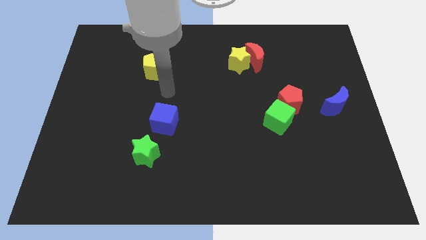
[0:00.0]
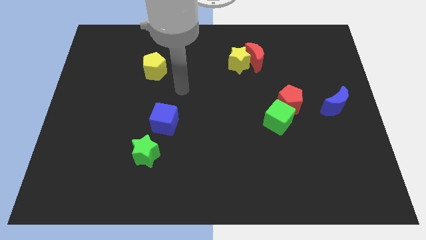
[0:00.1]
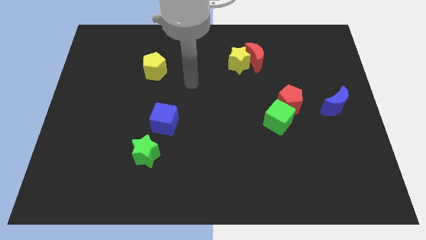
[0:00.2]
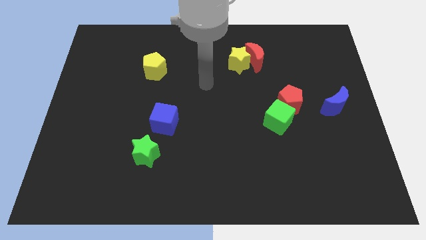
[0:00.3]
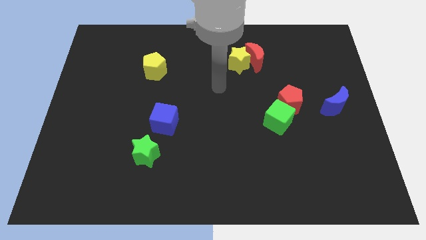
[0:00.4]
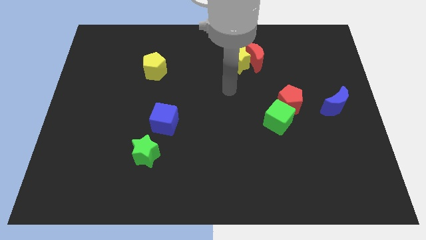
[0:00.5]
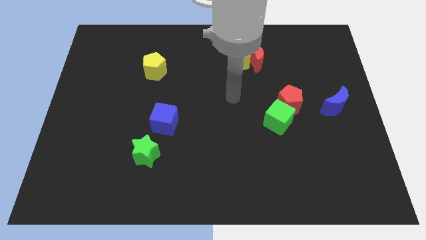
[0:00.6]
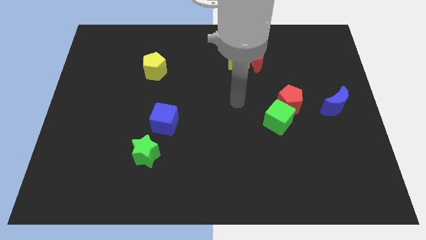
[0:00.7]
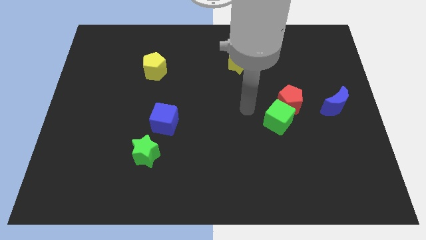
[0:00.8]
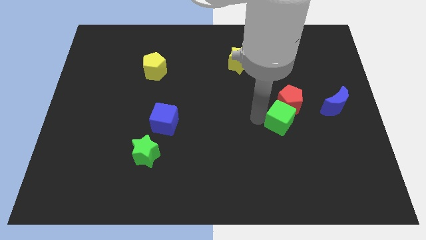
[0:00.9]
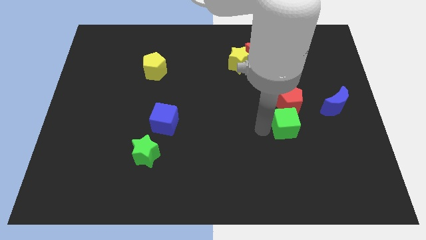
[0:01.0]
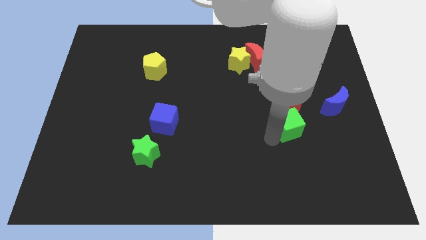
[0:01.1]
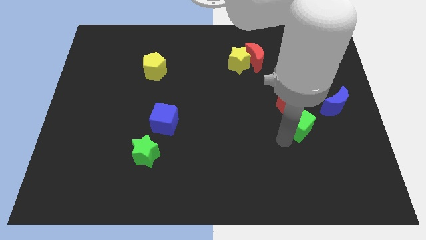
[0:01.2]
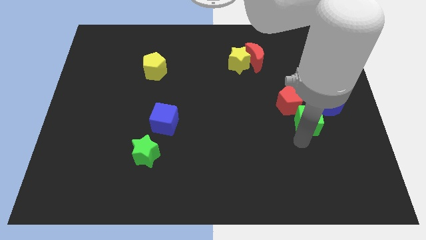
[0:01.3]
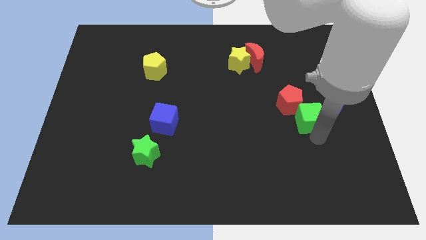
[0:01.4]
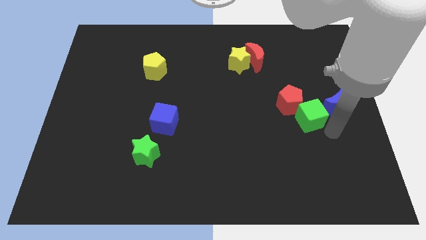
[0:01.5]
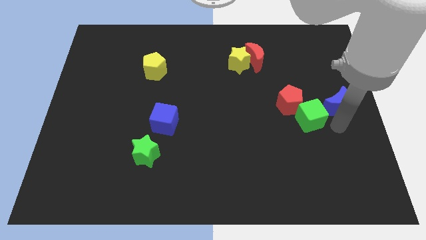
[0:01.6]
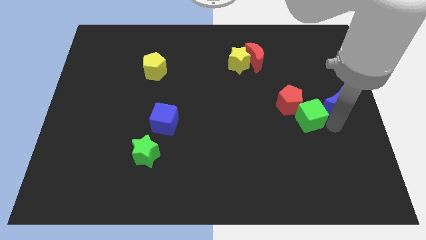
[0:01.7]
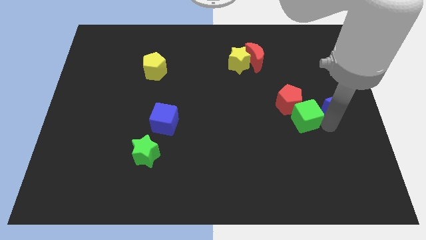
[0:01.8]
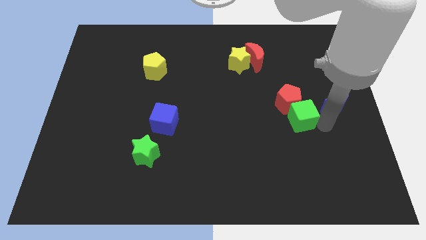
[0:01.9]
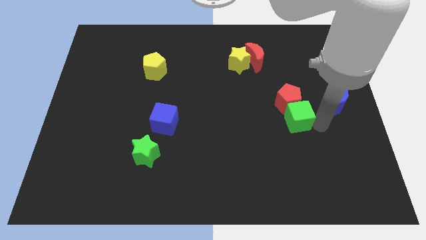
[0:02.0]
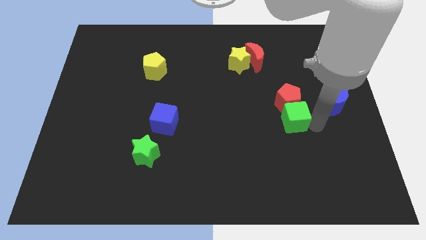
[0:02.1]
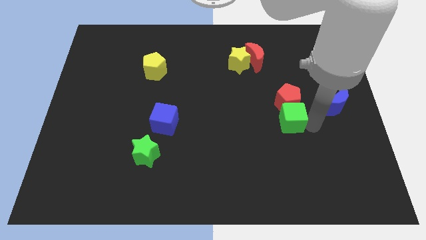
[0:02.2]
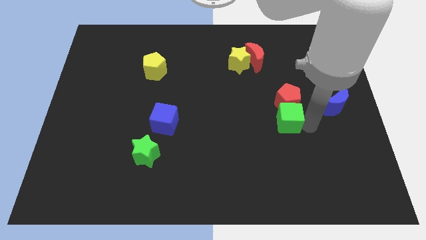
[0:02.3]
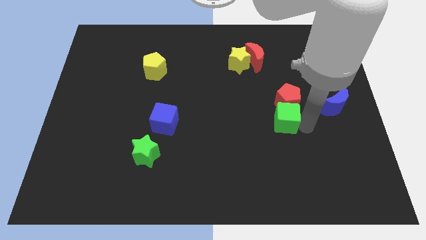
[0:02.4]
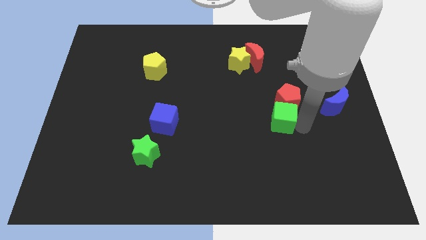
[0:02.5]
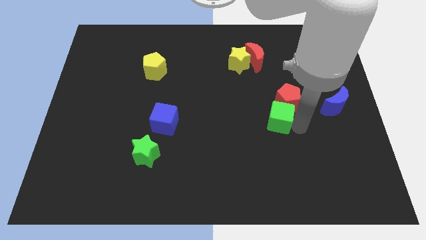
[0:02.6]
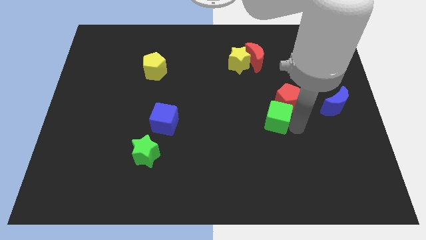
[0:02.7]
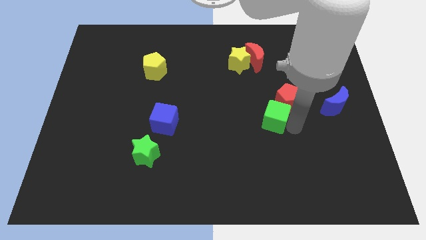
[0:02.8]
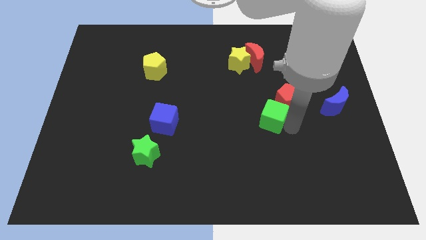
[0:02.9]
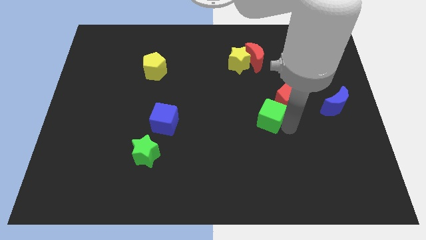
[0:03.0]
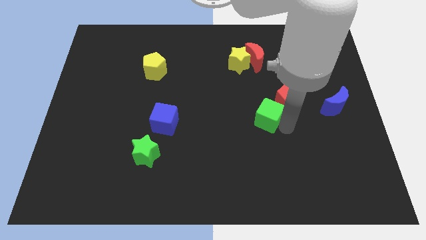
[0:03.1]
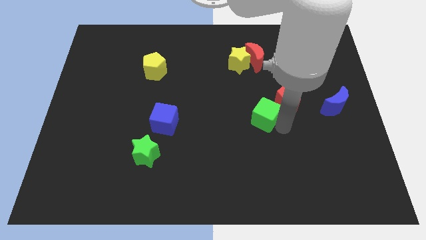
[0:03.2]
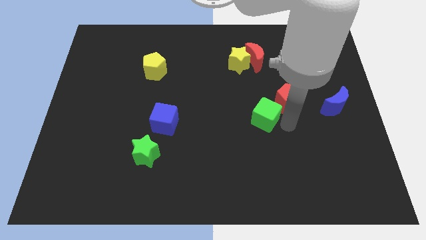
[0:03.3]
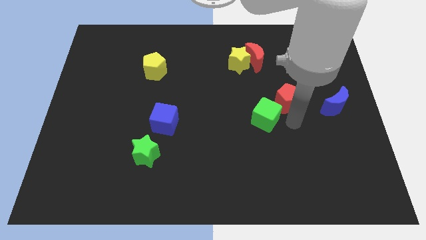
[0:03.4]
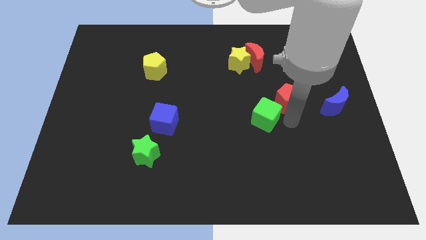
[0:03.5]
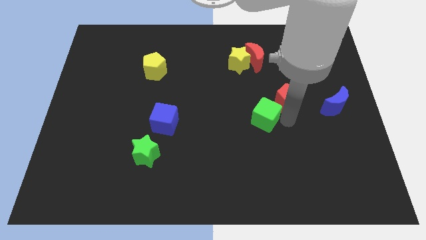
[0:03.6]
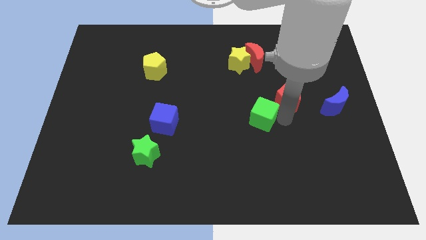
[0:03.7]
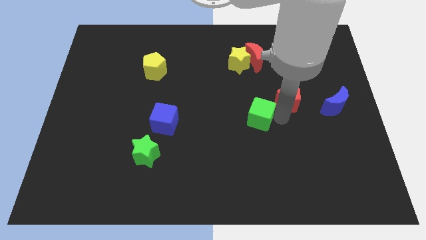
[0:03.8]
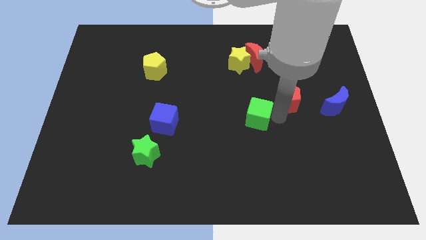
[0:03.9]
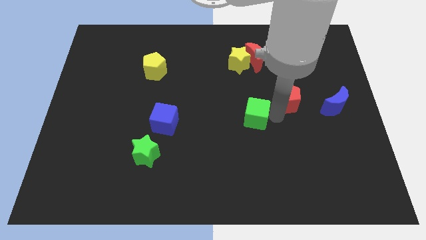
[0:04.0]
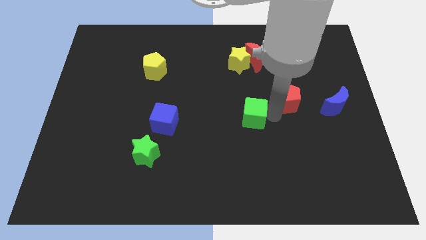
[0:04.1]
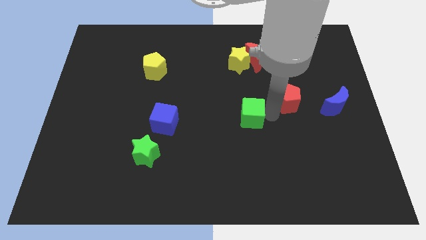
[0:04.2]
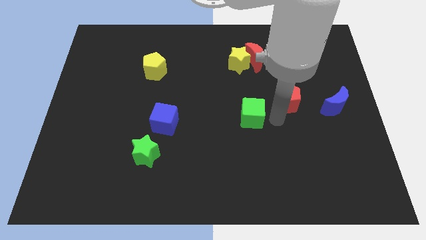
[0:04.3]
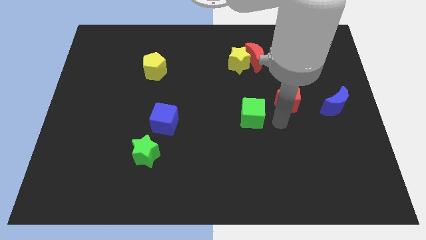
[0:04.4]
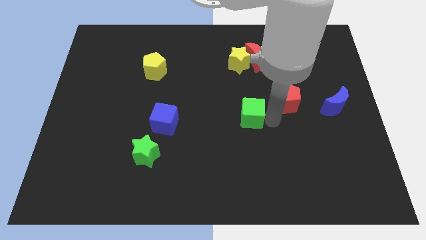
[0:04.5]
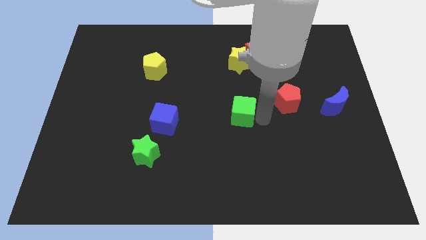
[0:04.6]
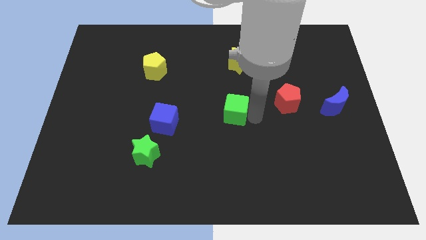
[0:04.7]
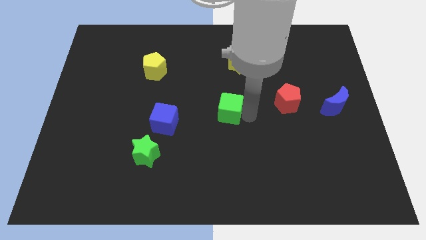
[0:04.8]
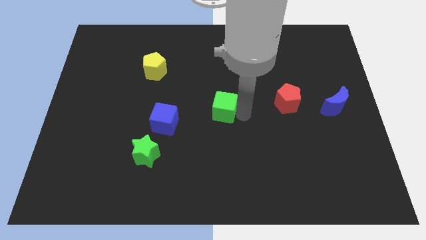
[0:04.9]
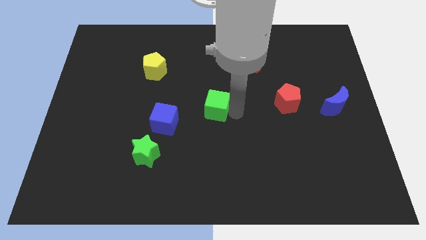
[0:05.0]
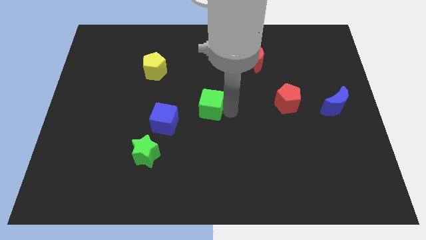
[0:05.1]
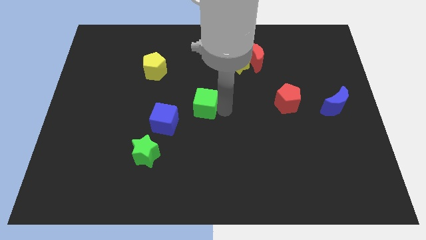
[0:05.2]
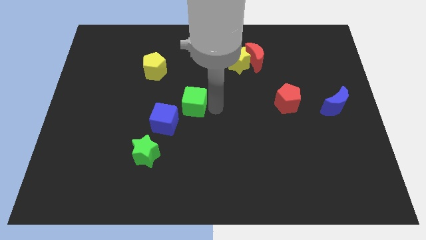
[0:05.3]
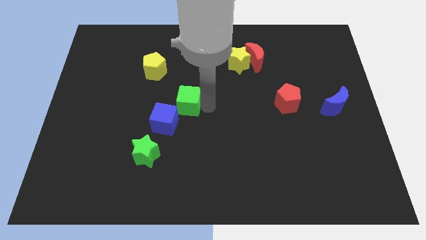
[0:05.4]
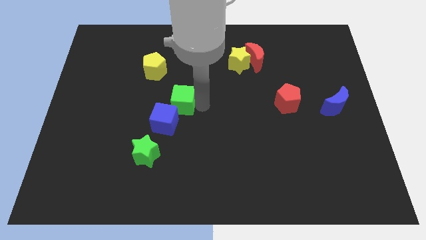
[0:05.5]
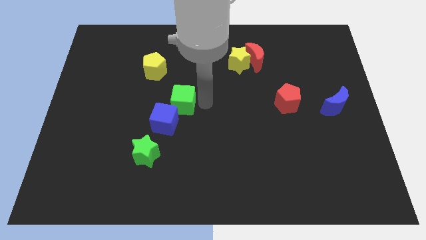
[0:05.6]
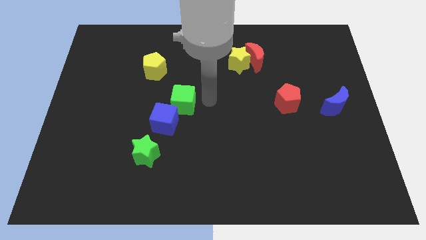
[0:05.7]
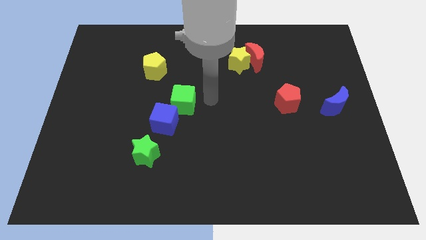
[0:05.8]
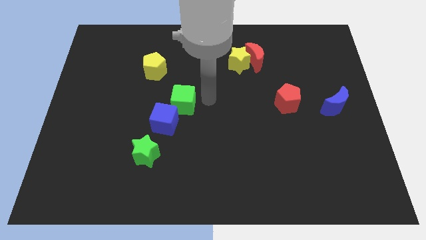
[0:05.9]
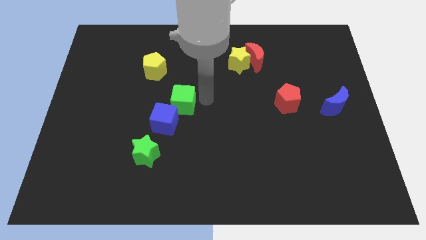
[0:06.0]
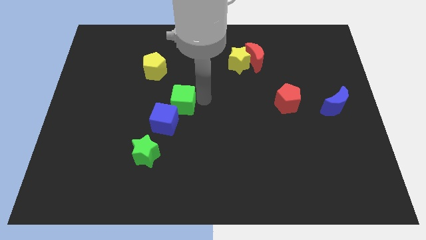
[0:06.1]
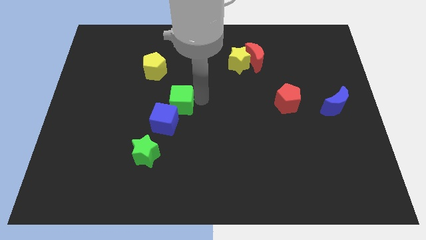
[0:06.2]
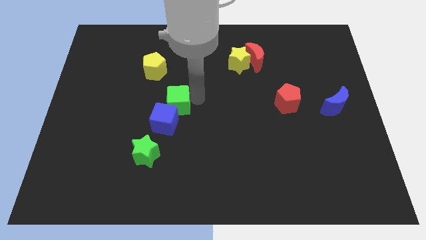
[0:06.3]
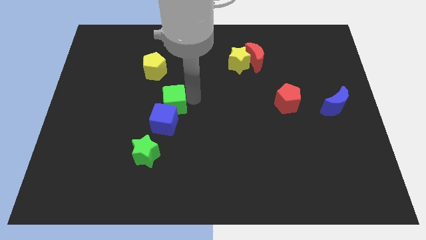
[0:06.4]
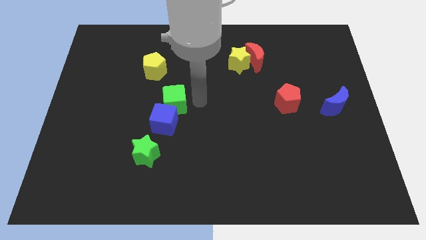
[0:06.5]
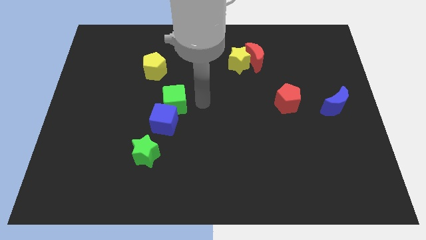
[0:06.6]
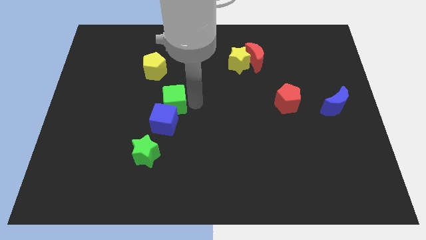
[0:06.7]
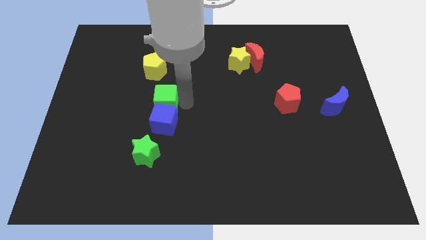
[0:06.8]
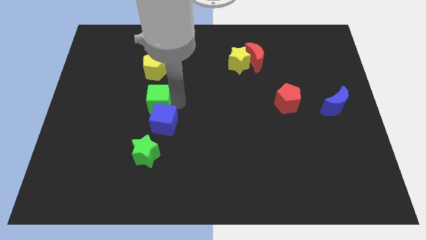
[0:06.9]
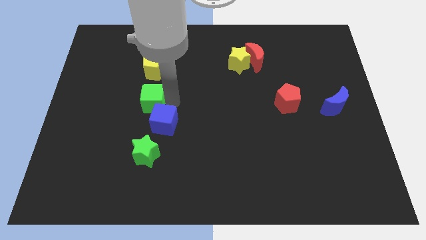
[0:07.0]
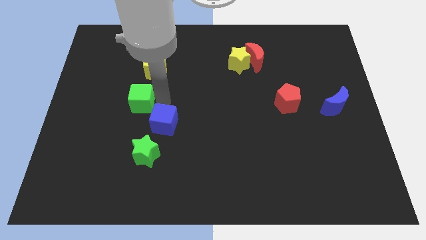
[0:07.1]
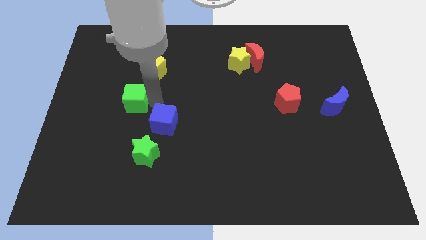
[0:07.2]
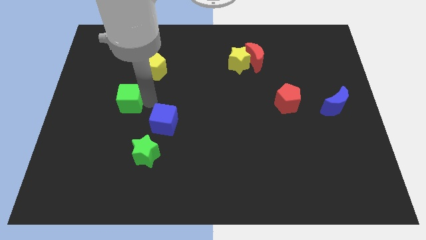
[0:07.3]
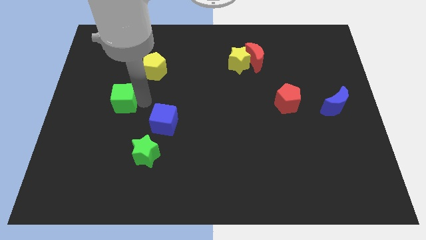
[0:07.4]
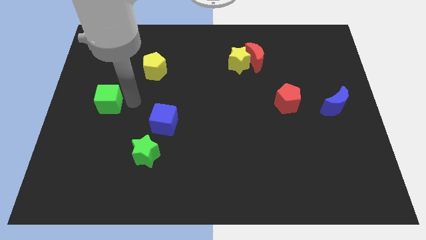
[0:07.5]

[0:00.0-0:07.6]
slide the green cube to the center left
